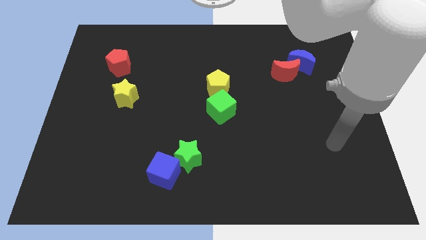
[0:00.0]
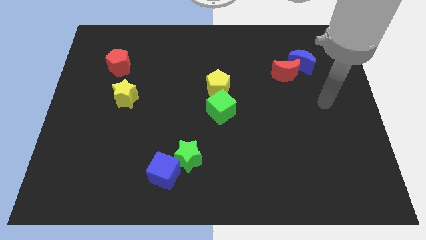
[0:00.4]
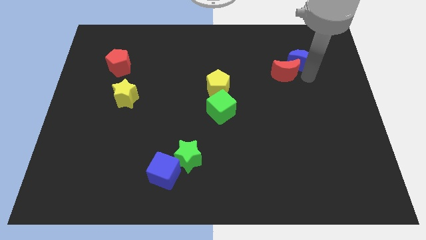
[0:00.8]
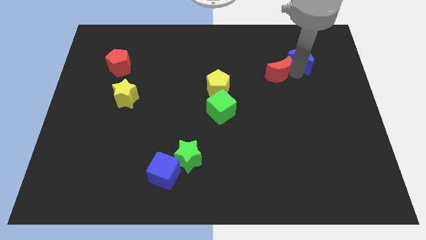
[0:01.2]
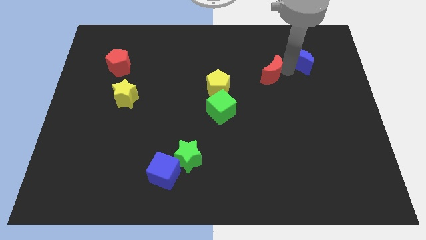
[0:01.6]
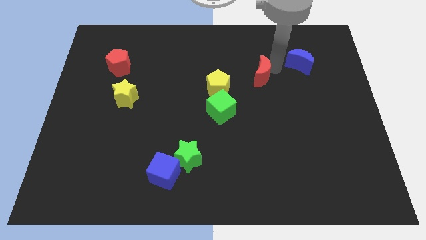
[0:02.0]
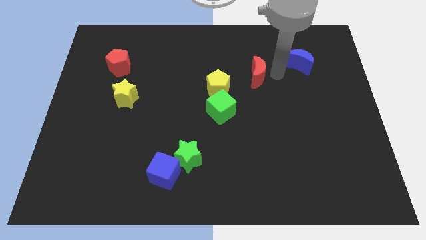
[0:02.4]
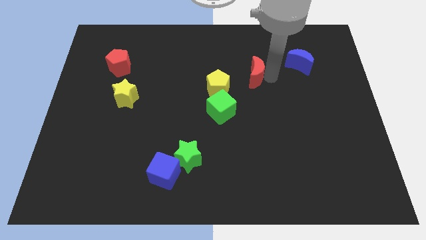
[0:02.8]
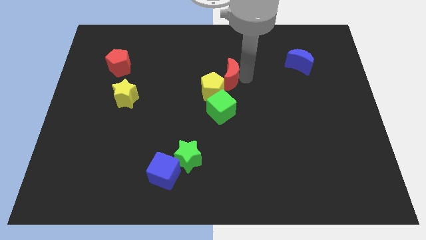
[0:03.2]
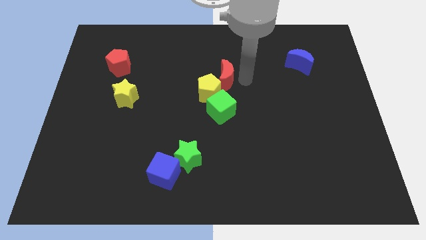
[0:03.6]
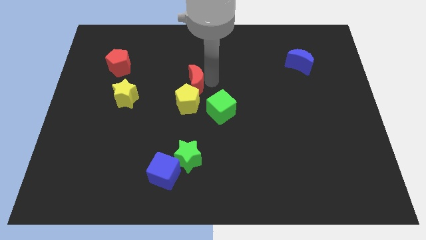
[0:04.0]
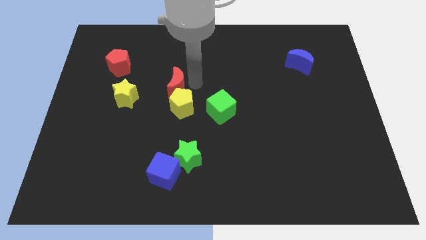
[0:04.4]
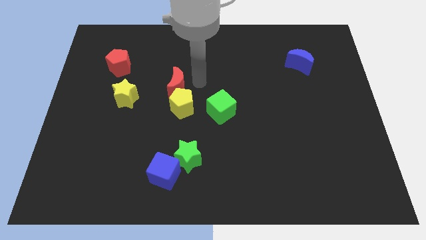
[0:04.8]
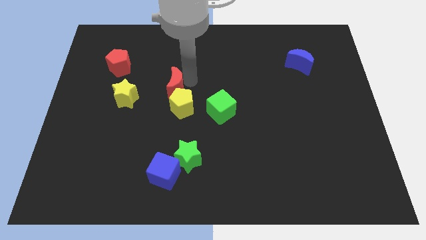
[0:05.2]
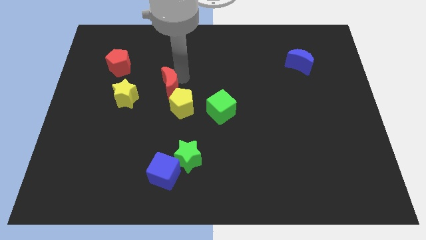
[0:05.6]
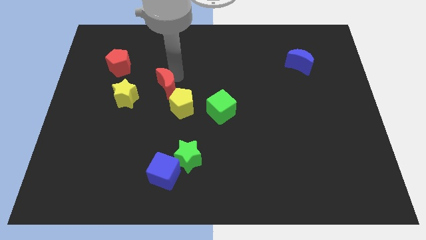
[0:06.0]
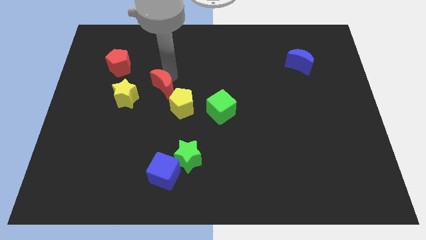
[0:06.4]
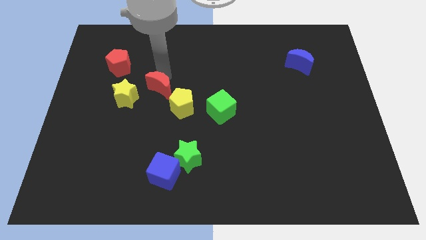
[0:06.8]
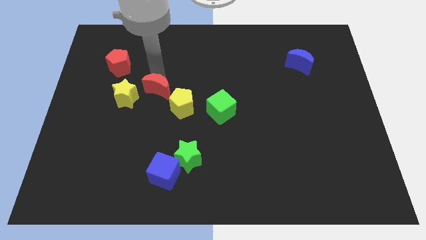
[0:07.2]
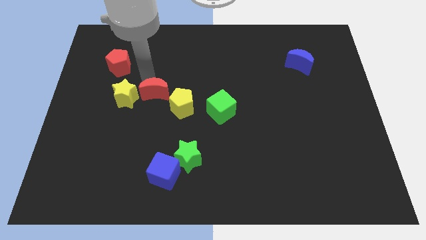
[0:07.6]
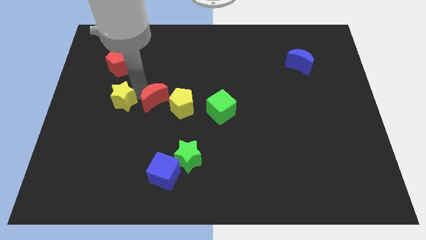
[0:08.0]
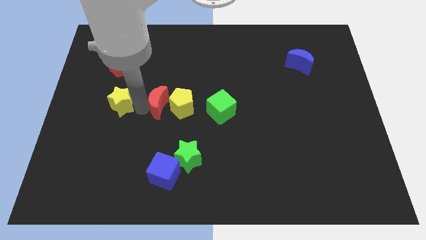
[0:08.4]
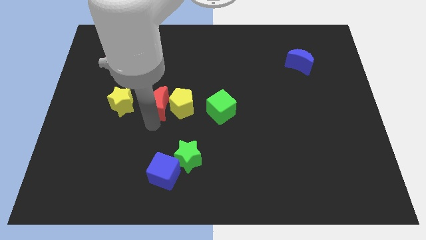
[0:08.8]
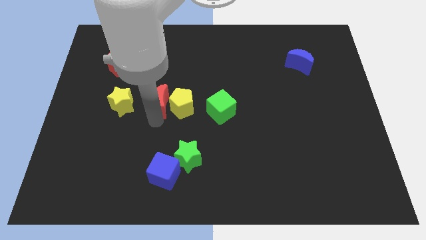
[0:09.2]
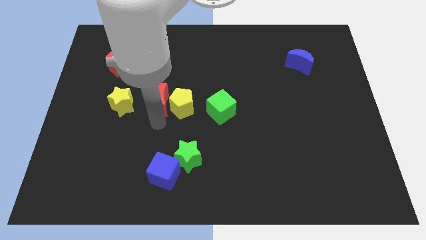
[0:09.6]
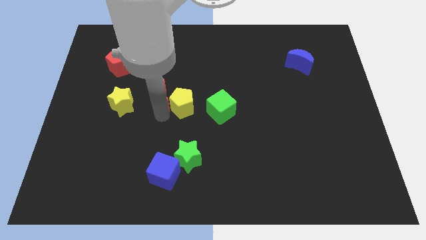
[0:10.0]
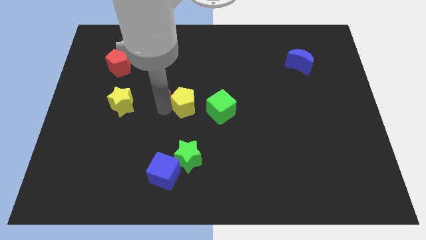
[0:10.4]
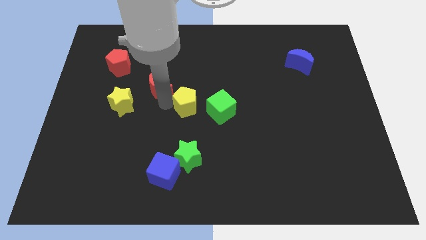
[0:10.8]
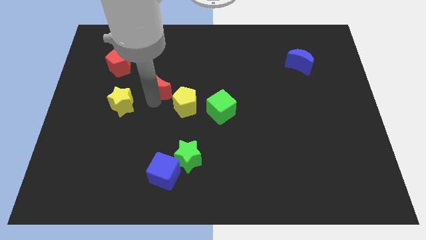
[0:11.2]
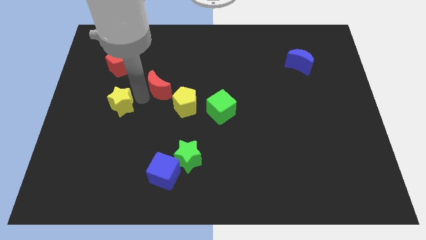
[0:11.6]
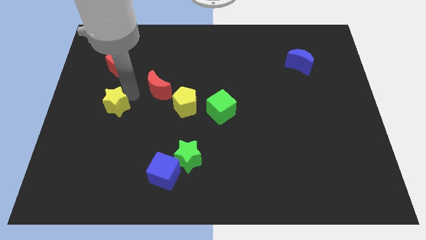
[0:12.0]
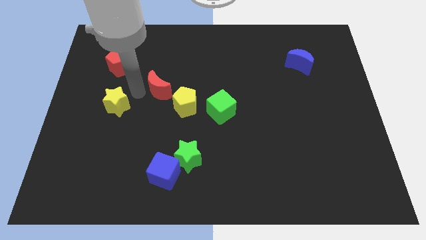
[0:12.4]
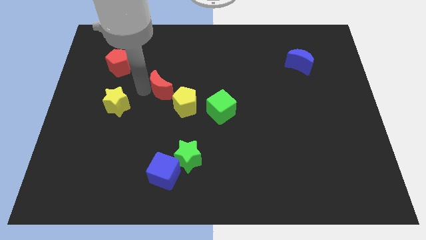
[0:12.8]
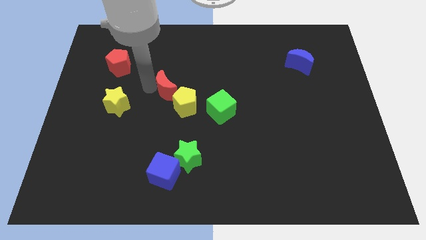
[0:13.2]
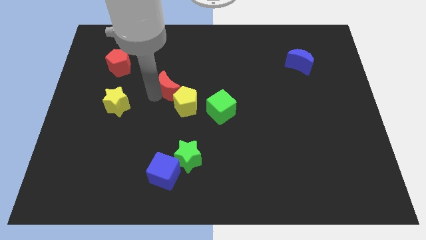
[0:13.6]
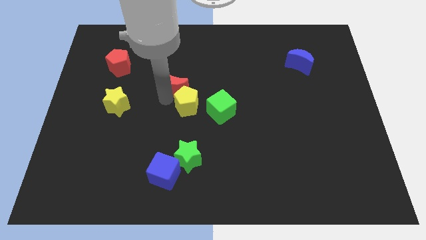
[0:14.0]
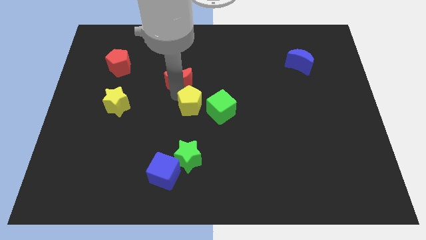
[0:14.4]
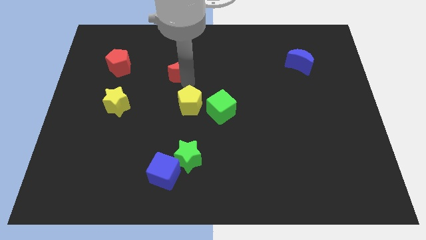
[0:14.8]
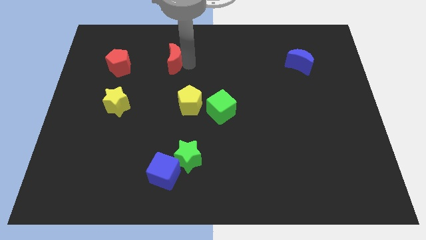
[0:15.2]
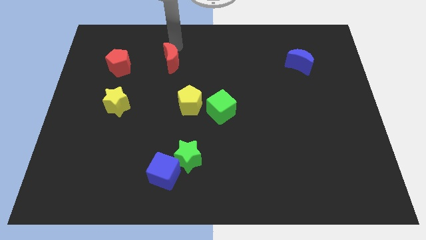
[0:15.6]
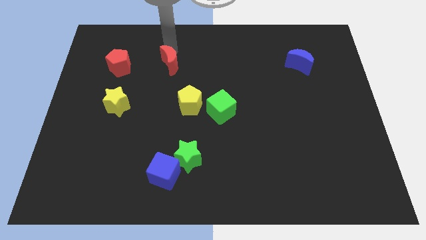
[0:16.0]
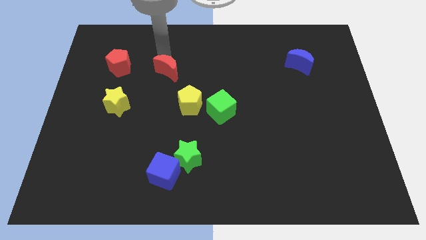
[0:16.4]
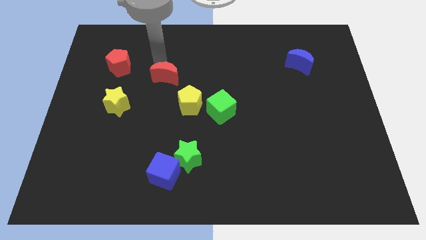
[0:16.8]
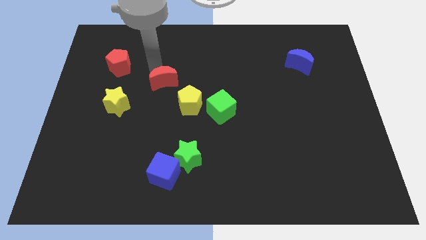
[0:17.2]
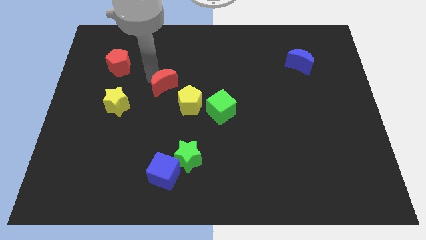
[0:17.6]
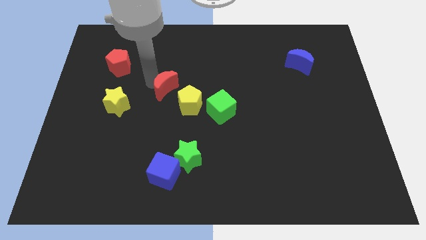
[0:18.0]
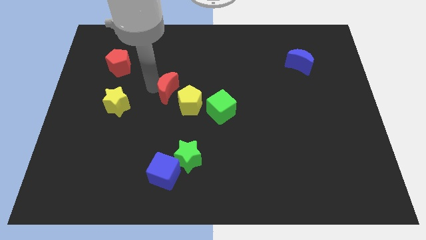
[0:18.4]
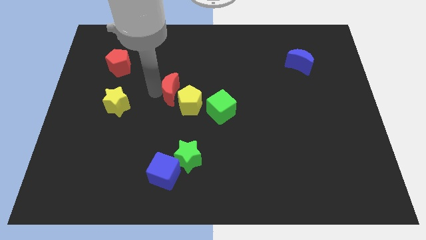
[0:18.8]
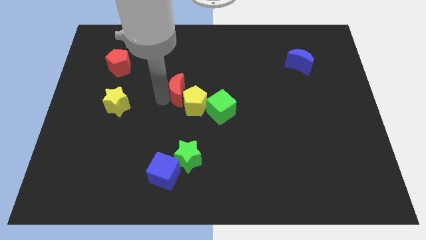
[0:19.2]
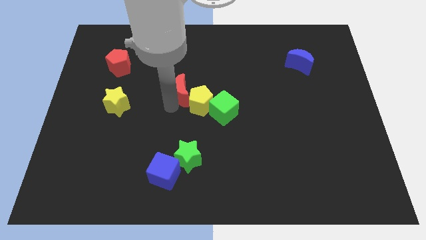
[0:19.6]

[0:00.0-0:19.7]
move the red moon to the top left of the yellow pentagon

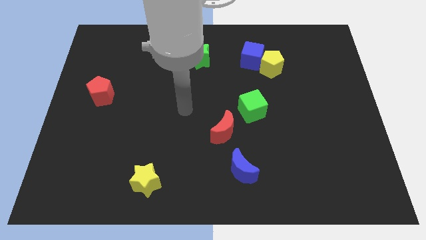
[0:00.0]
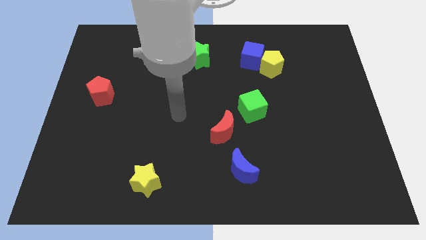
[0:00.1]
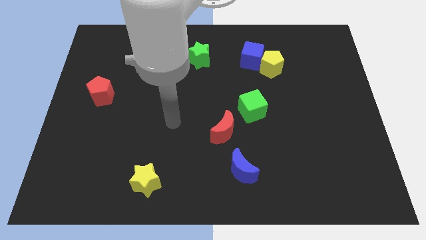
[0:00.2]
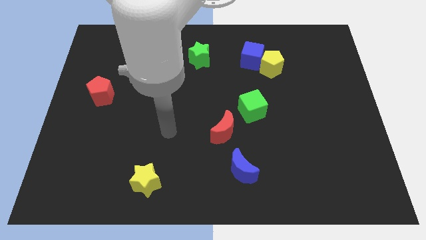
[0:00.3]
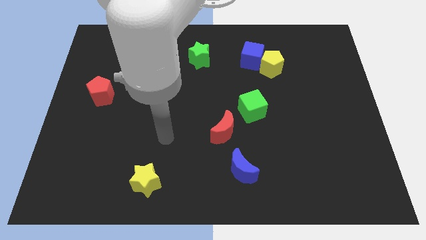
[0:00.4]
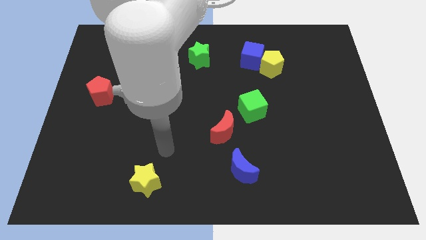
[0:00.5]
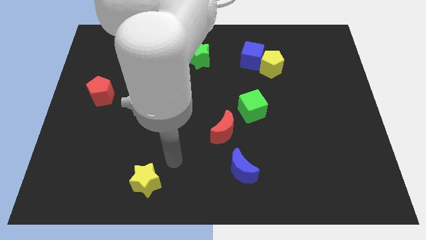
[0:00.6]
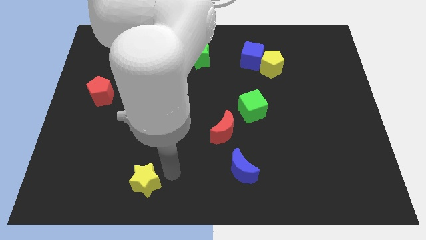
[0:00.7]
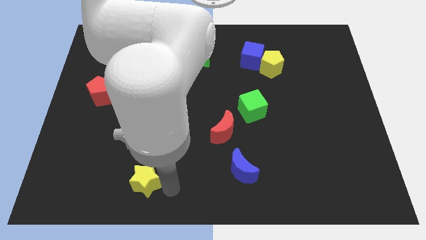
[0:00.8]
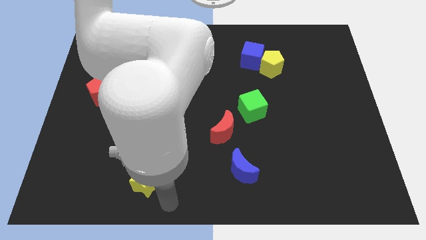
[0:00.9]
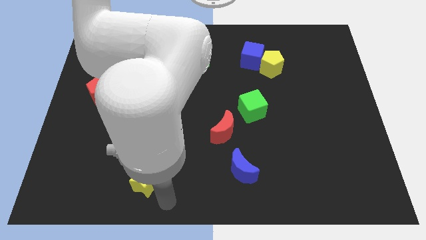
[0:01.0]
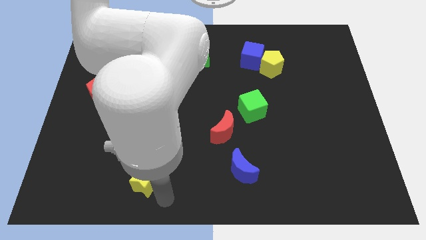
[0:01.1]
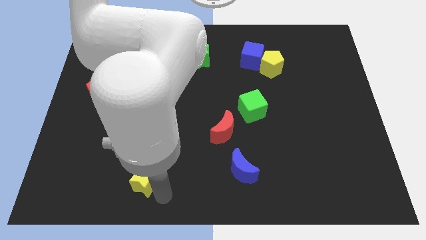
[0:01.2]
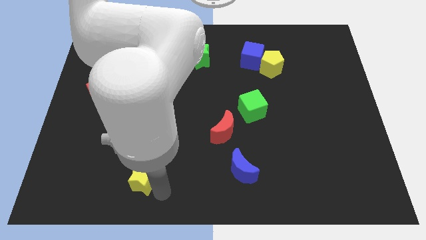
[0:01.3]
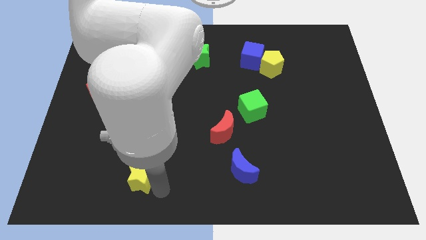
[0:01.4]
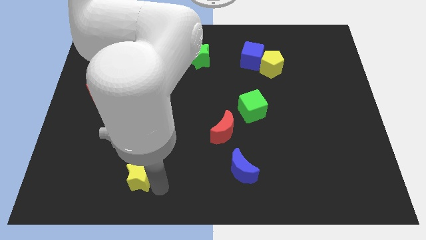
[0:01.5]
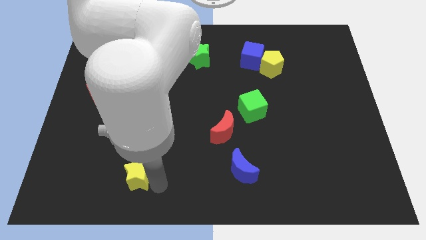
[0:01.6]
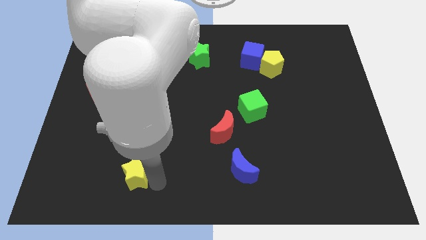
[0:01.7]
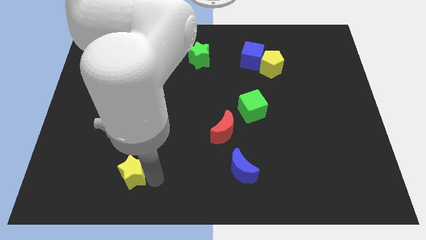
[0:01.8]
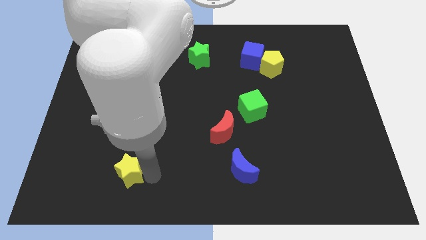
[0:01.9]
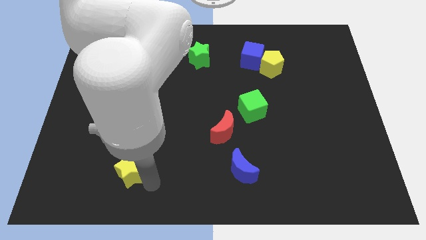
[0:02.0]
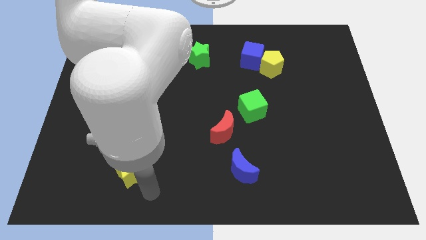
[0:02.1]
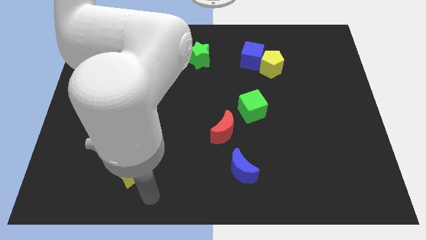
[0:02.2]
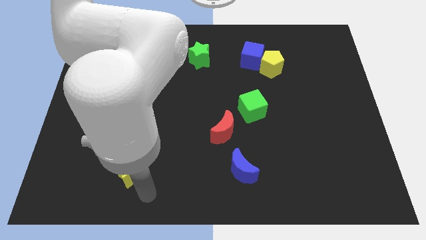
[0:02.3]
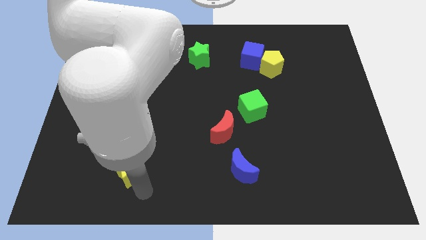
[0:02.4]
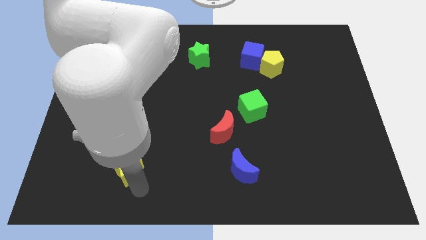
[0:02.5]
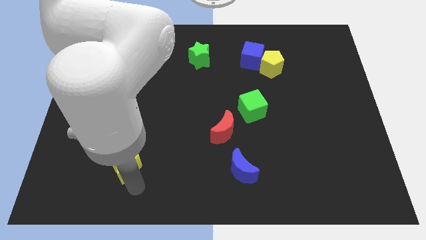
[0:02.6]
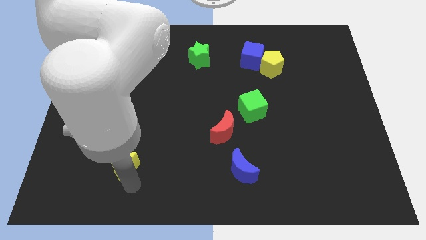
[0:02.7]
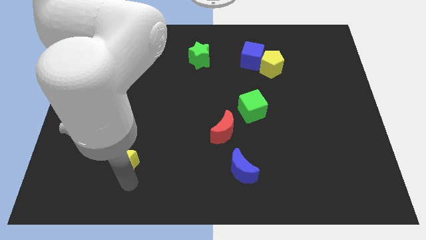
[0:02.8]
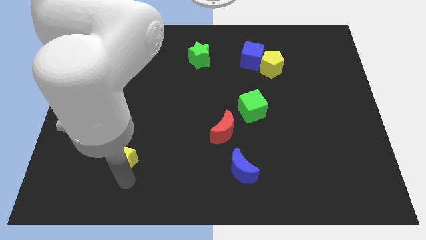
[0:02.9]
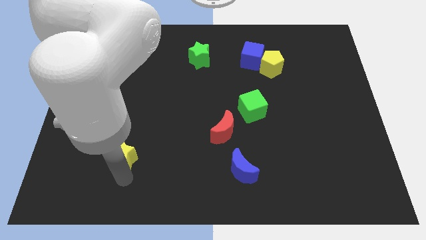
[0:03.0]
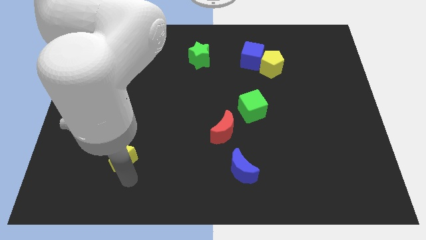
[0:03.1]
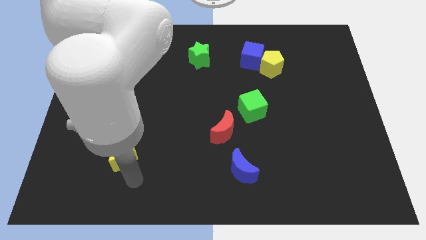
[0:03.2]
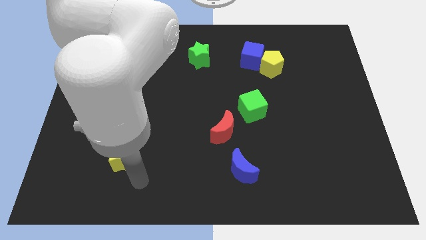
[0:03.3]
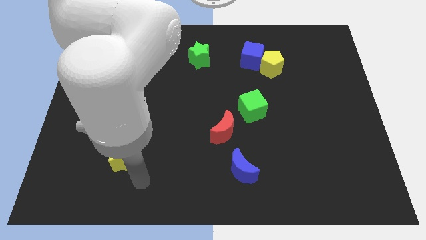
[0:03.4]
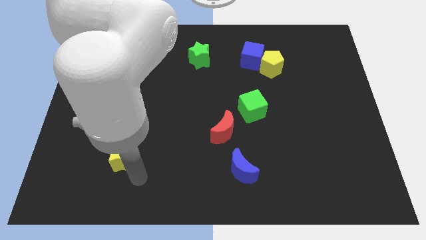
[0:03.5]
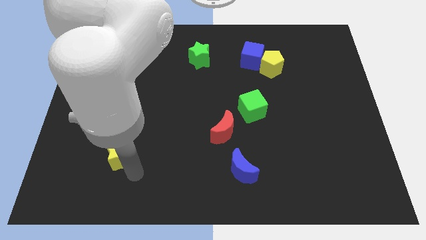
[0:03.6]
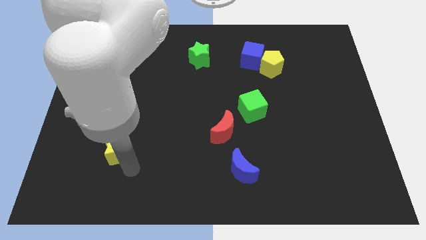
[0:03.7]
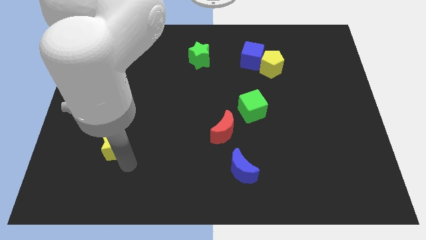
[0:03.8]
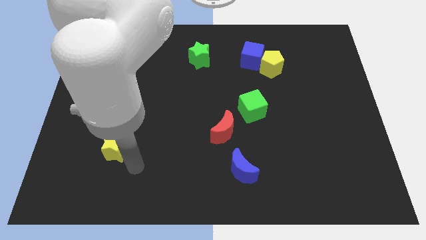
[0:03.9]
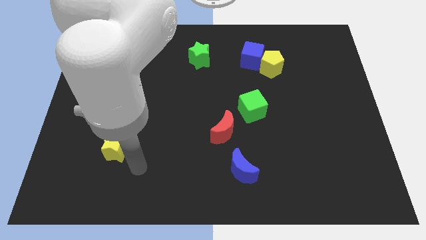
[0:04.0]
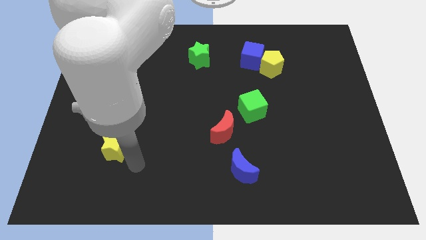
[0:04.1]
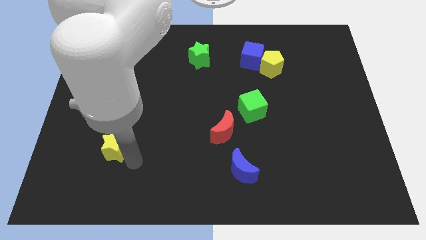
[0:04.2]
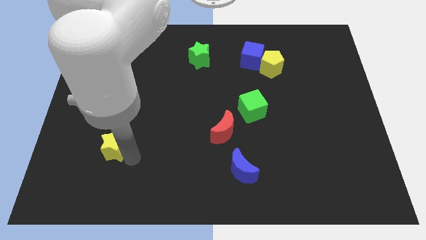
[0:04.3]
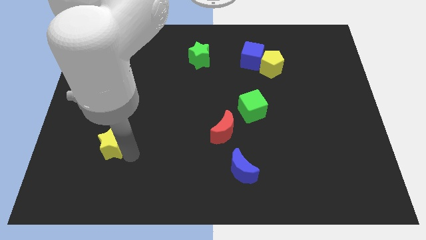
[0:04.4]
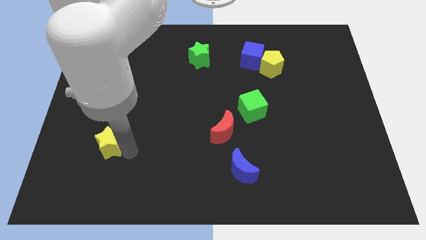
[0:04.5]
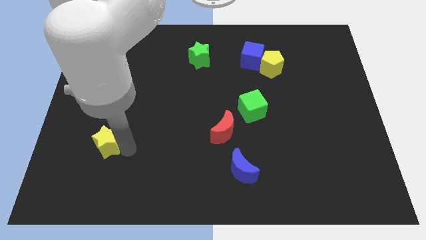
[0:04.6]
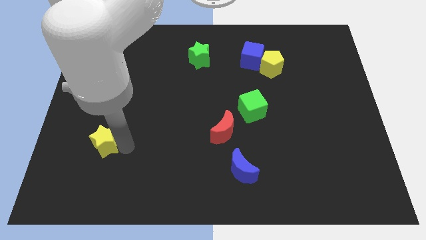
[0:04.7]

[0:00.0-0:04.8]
push the yellow star below the red pentagon
